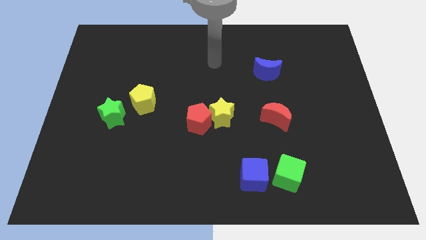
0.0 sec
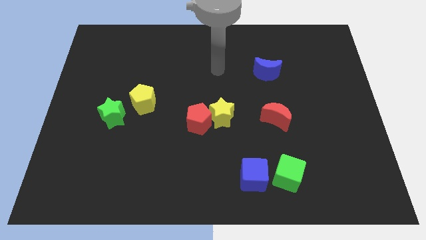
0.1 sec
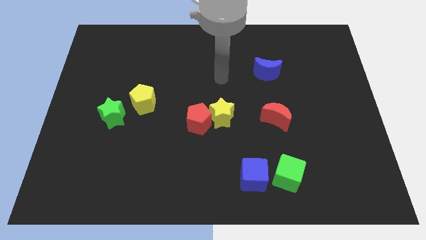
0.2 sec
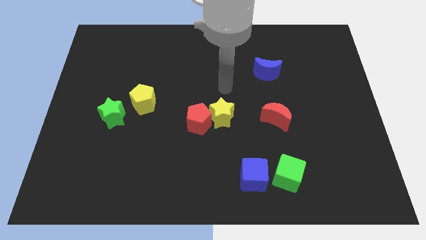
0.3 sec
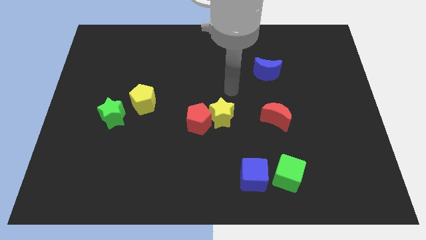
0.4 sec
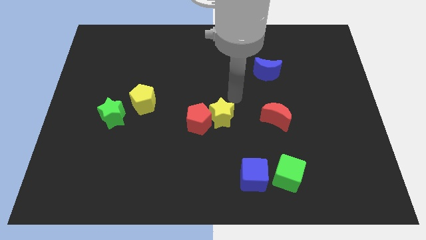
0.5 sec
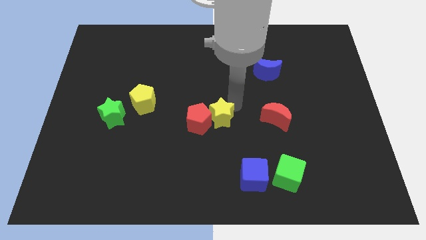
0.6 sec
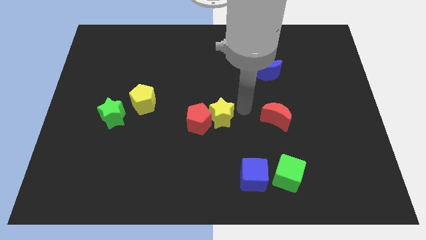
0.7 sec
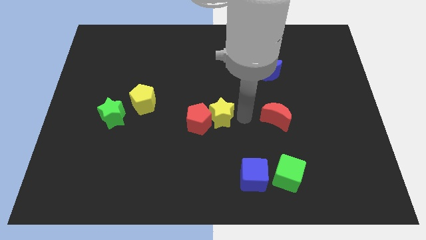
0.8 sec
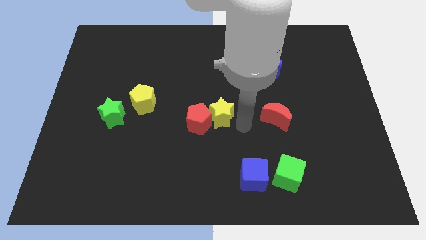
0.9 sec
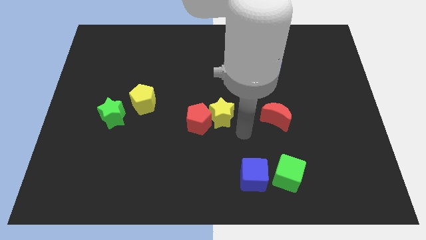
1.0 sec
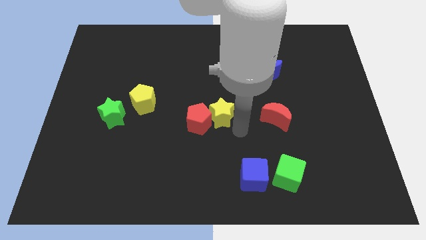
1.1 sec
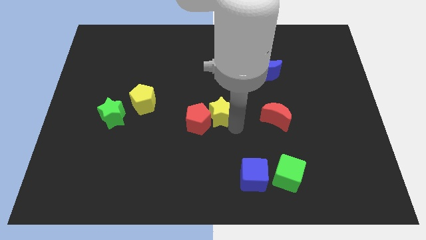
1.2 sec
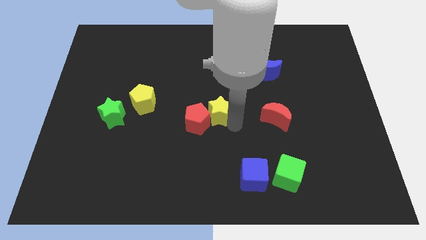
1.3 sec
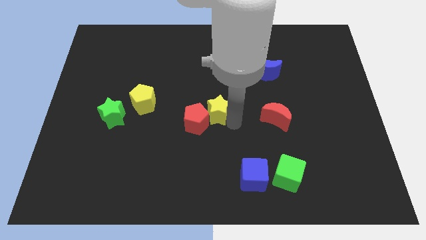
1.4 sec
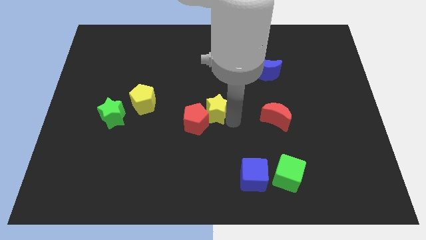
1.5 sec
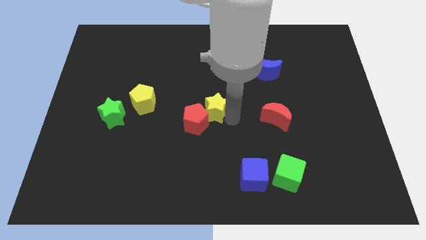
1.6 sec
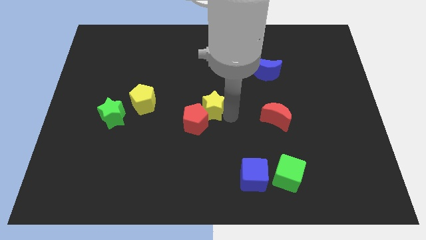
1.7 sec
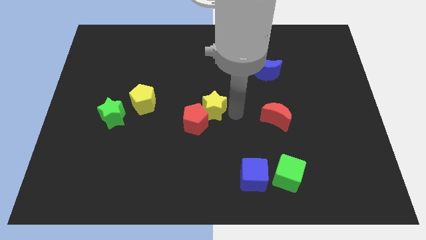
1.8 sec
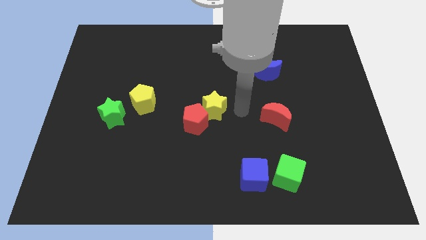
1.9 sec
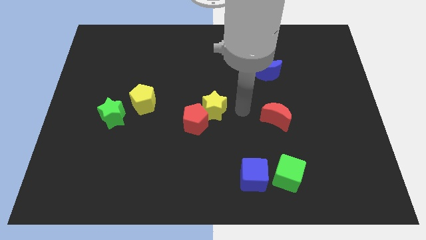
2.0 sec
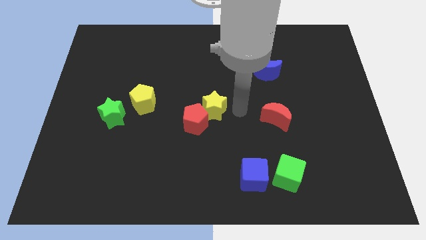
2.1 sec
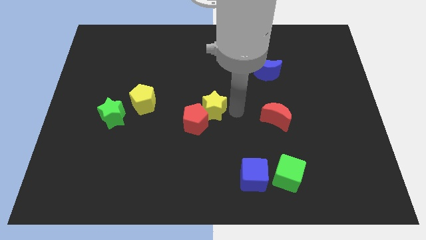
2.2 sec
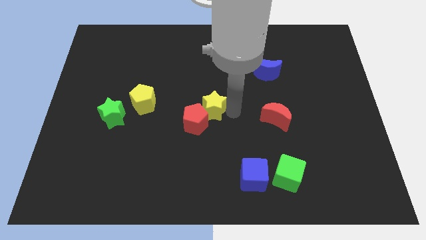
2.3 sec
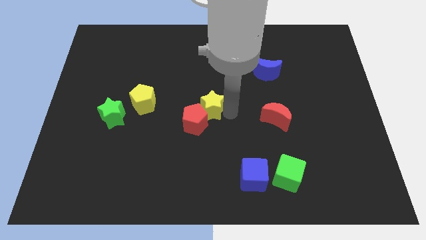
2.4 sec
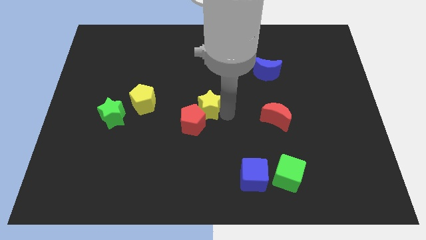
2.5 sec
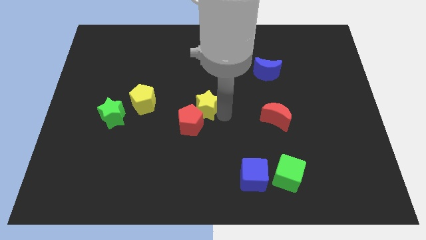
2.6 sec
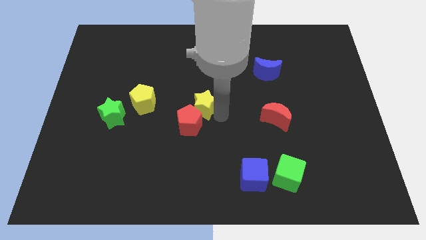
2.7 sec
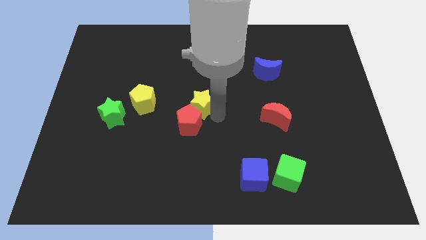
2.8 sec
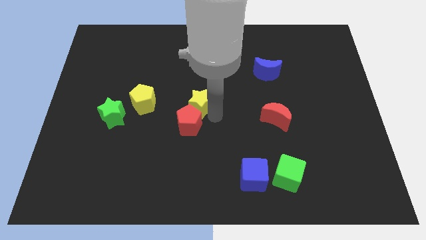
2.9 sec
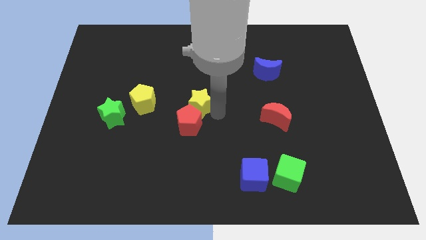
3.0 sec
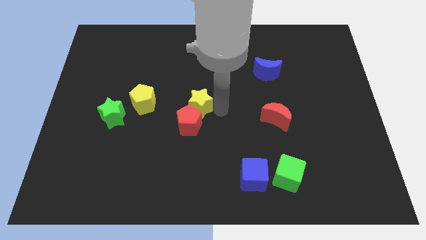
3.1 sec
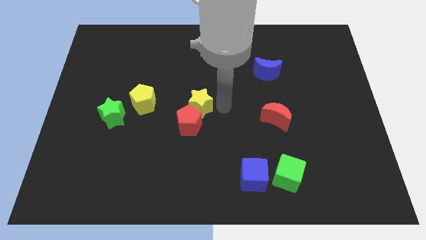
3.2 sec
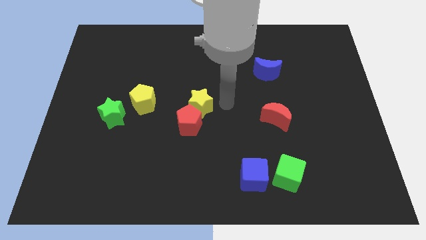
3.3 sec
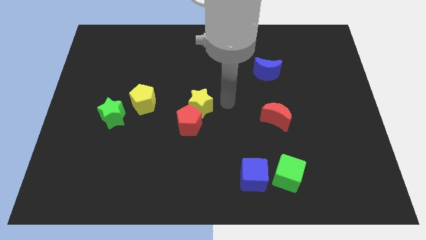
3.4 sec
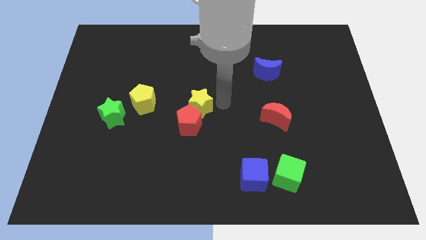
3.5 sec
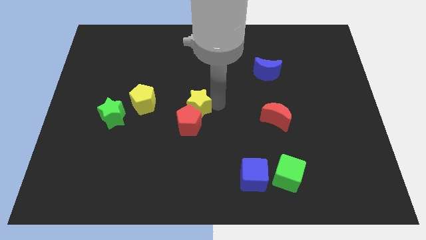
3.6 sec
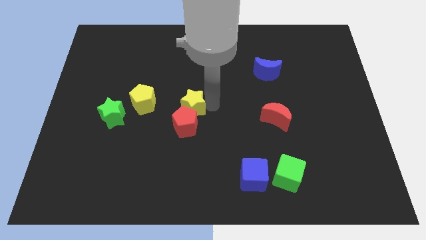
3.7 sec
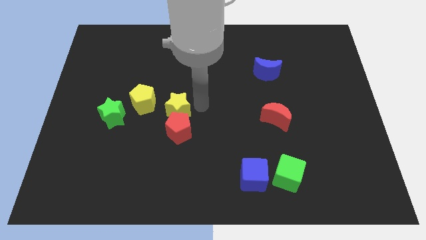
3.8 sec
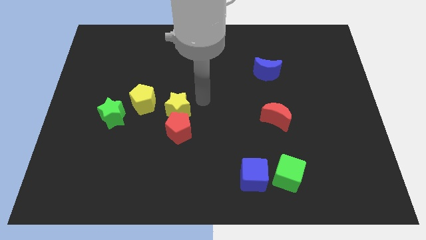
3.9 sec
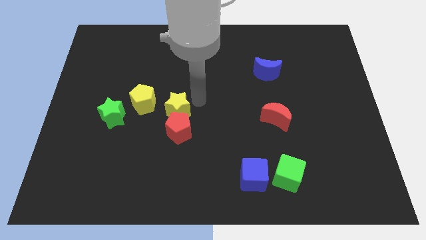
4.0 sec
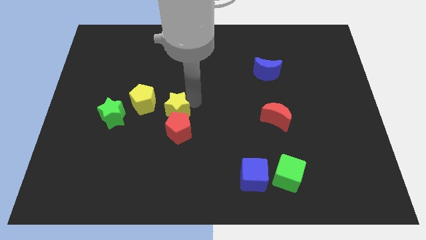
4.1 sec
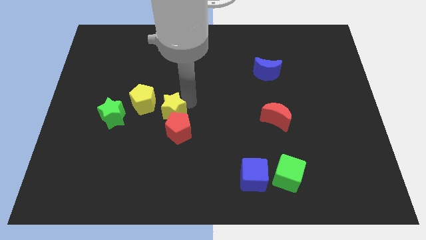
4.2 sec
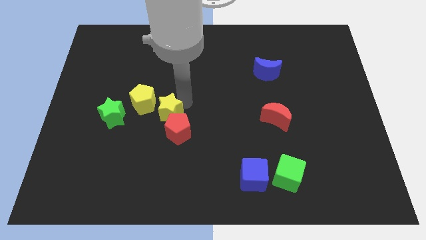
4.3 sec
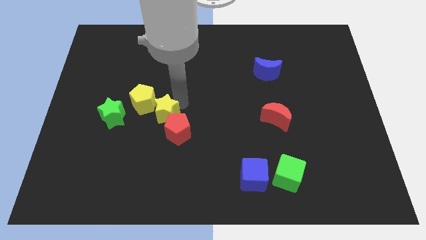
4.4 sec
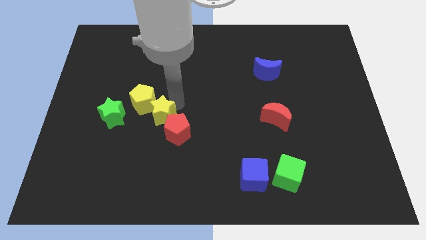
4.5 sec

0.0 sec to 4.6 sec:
push the yellow star to the left side of the red pentagon

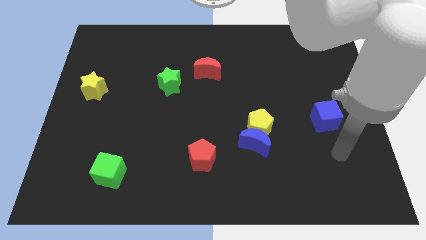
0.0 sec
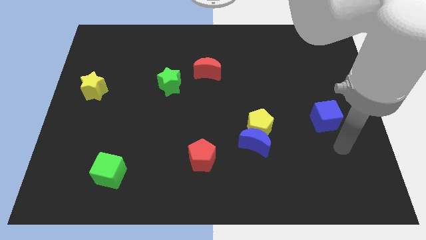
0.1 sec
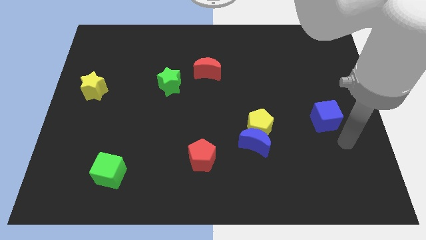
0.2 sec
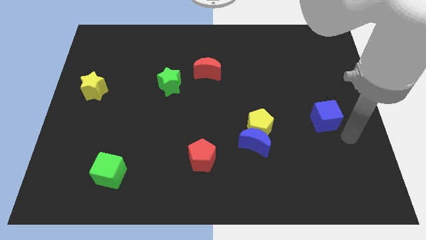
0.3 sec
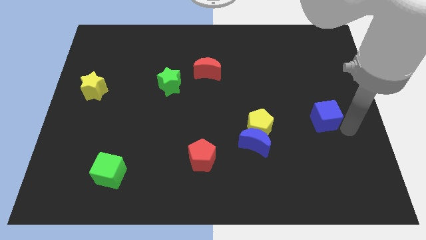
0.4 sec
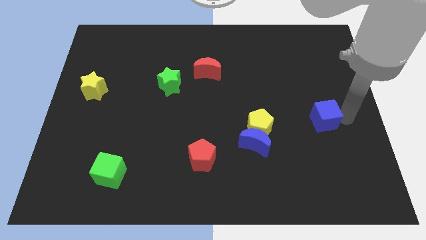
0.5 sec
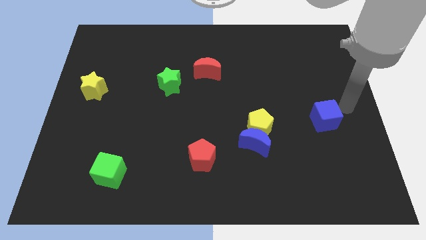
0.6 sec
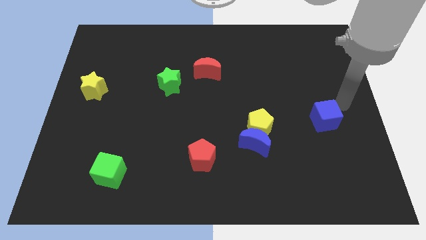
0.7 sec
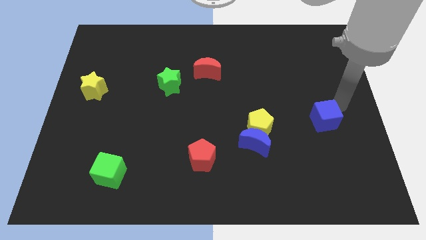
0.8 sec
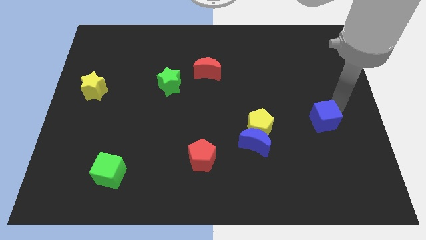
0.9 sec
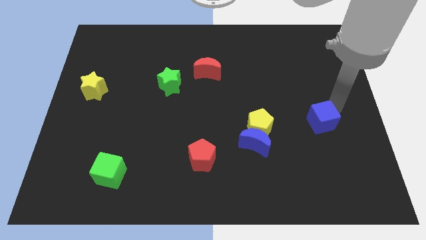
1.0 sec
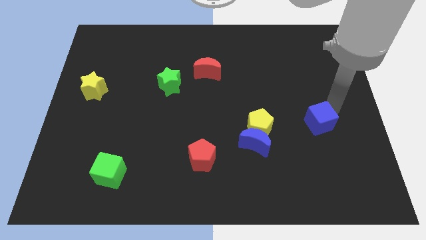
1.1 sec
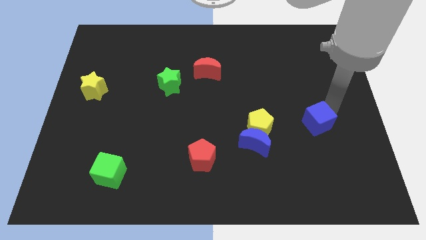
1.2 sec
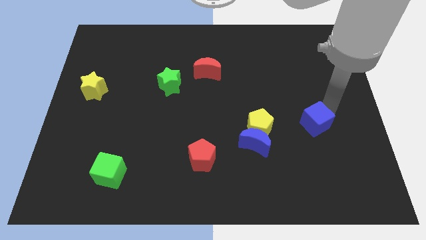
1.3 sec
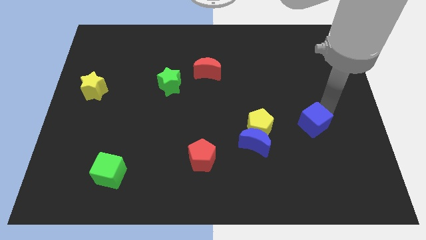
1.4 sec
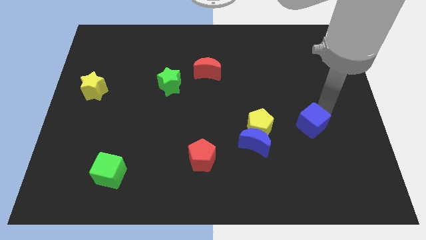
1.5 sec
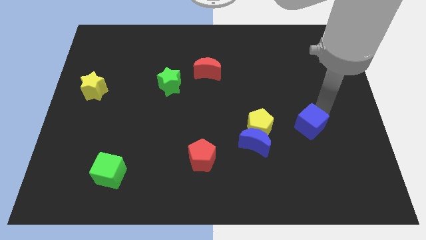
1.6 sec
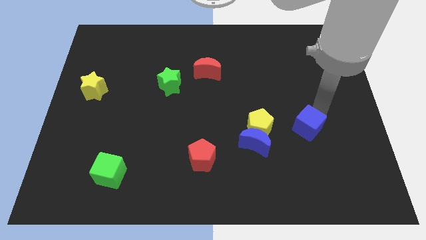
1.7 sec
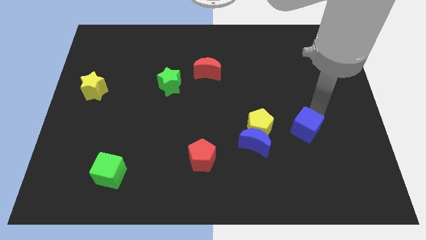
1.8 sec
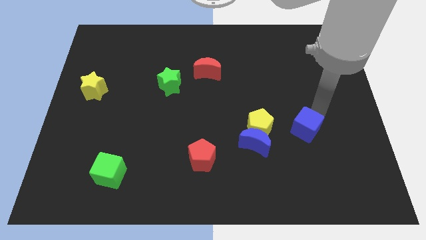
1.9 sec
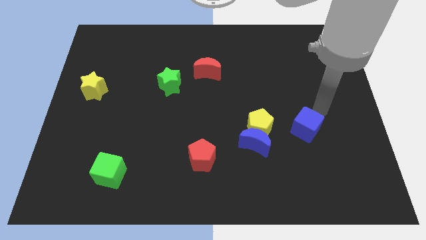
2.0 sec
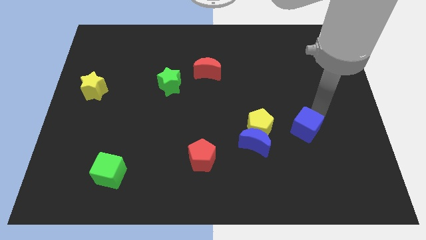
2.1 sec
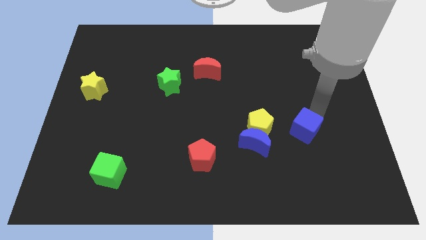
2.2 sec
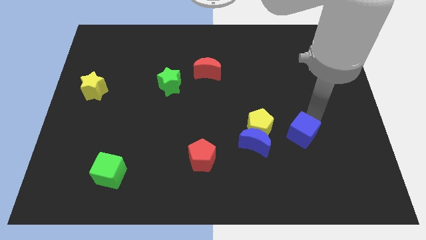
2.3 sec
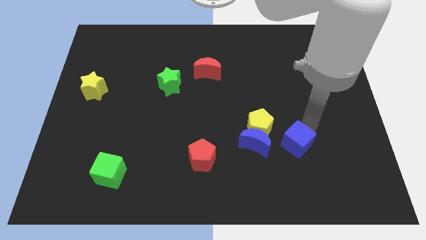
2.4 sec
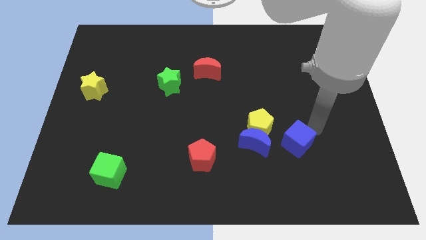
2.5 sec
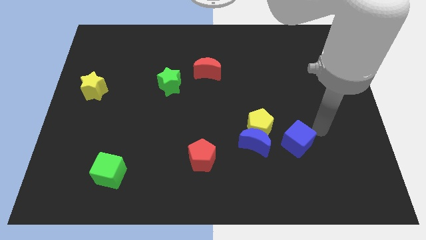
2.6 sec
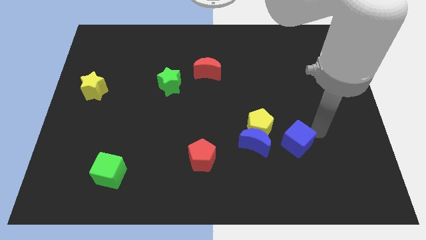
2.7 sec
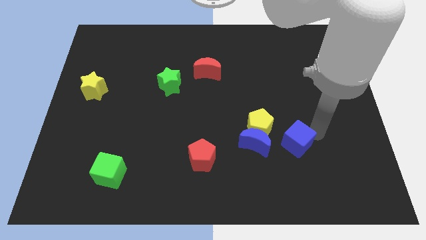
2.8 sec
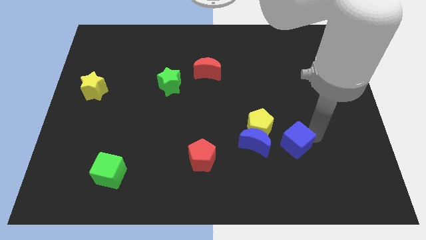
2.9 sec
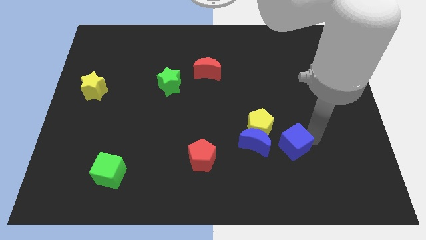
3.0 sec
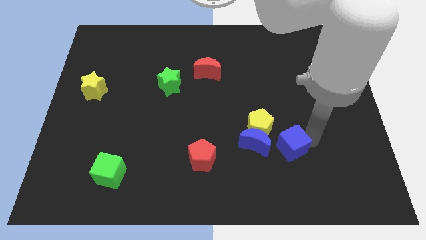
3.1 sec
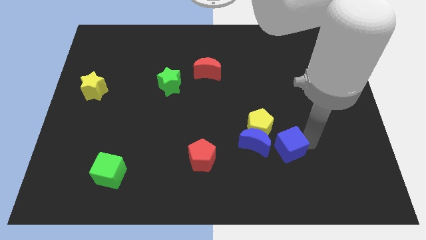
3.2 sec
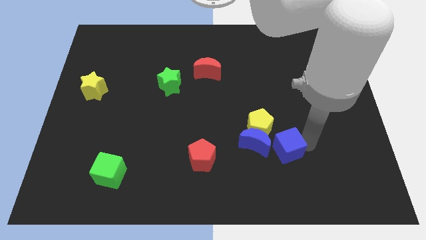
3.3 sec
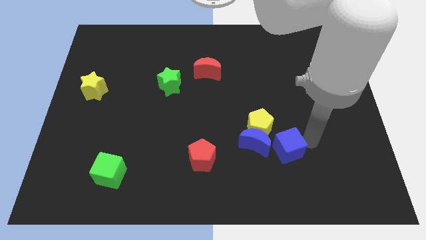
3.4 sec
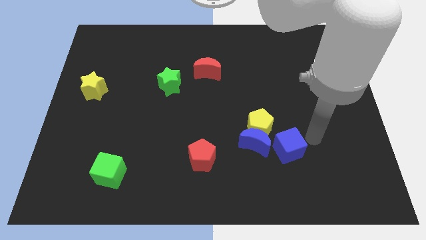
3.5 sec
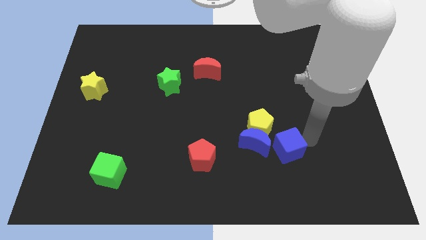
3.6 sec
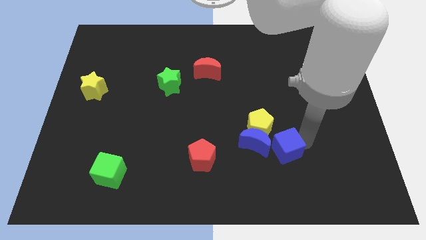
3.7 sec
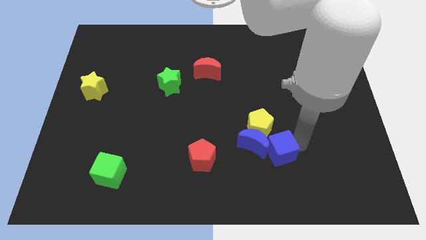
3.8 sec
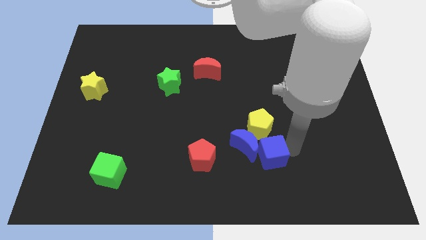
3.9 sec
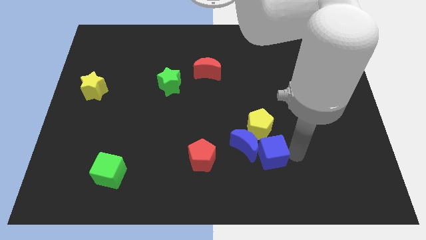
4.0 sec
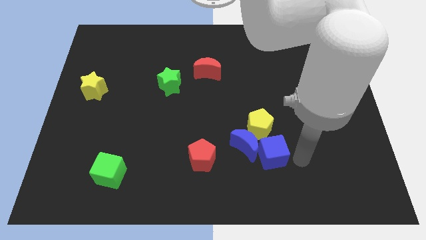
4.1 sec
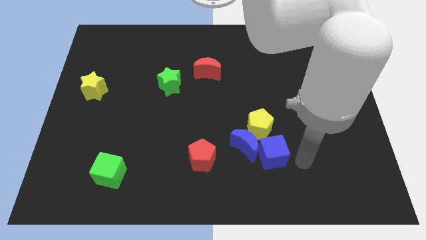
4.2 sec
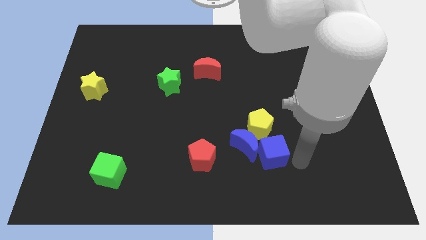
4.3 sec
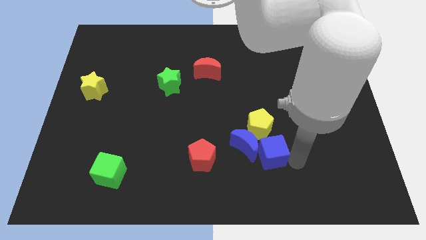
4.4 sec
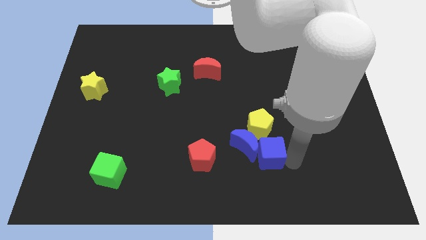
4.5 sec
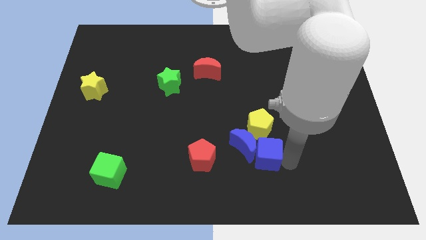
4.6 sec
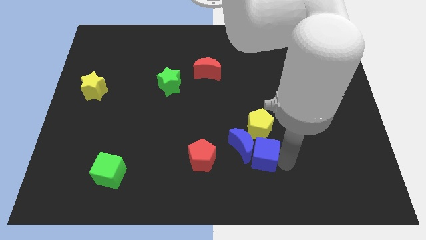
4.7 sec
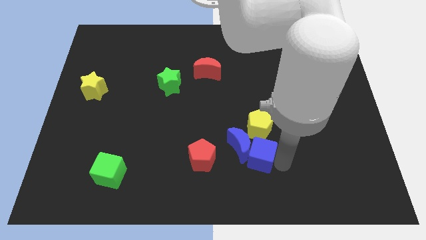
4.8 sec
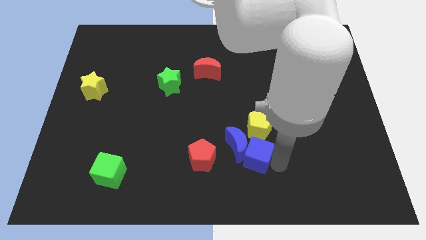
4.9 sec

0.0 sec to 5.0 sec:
put the blue cube to the bottom left of the yellow pentagon
